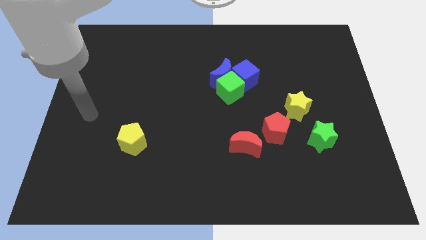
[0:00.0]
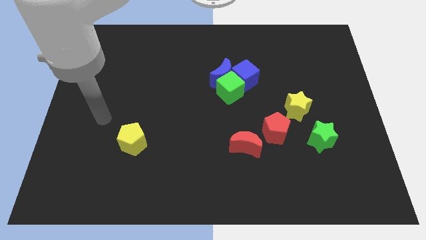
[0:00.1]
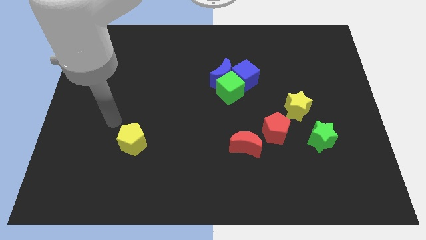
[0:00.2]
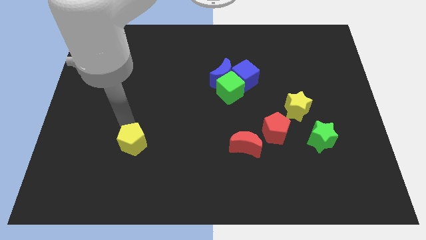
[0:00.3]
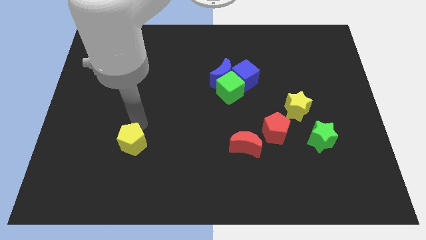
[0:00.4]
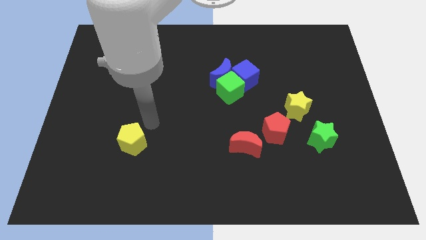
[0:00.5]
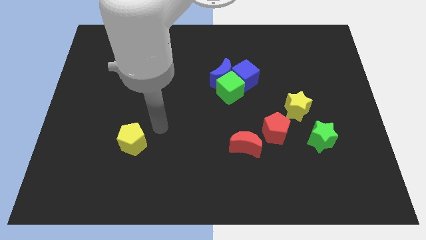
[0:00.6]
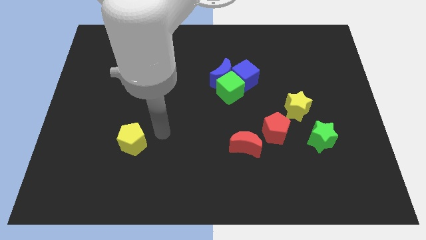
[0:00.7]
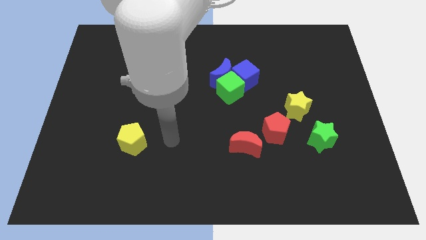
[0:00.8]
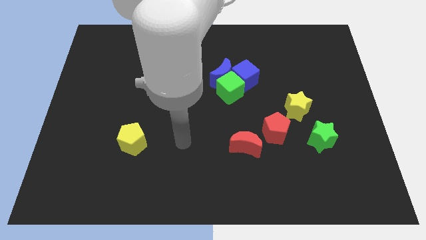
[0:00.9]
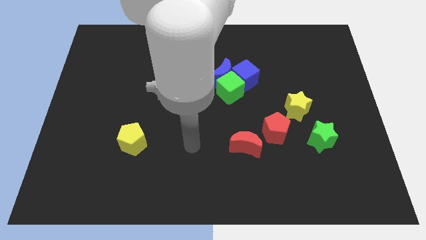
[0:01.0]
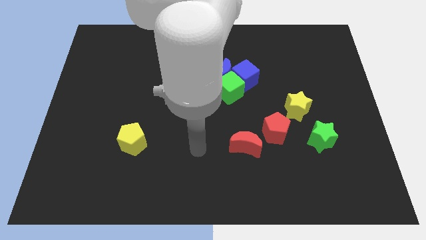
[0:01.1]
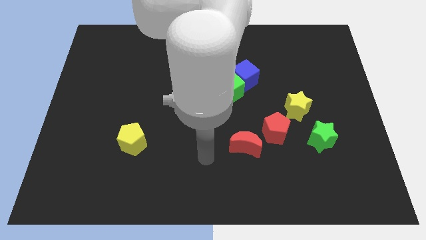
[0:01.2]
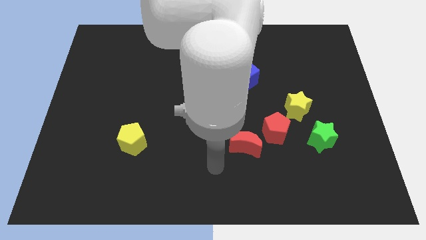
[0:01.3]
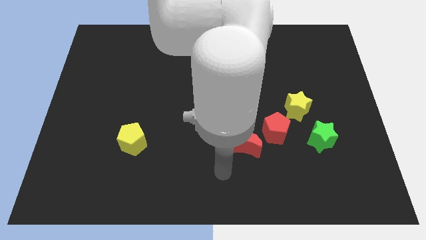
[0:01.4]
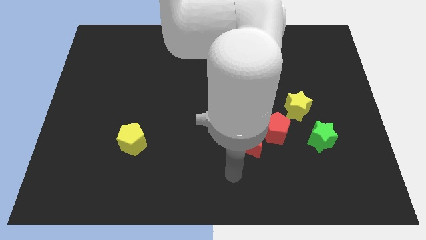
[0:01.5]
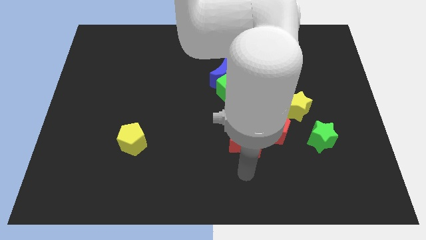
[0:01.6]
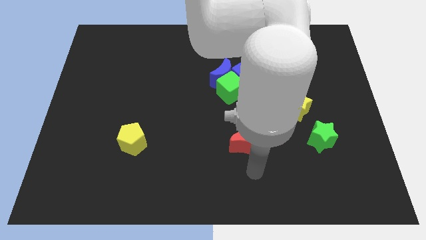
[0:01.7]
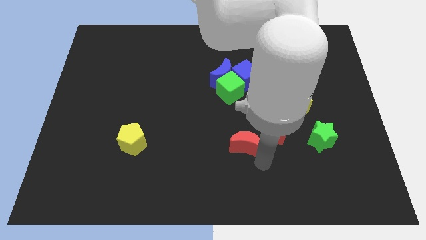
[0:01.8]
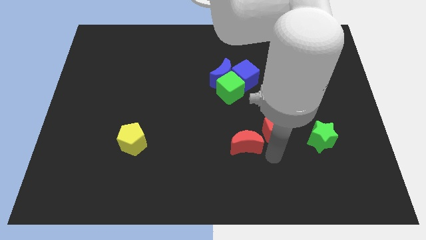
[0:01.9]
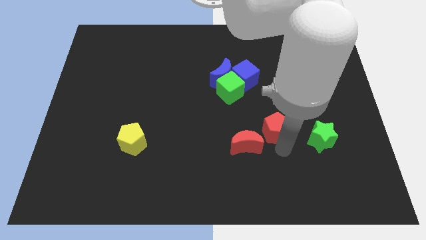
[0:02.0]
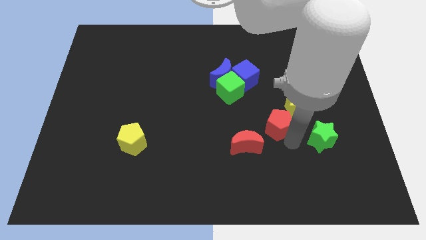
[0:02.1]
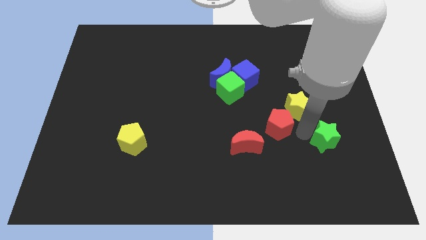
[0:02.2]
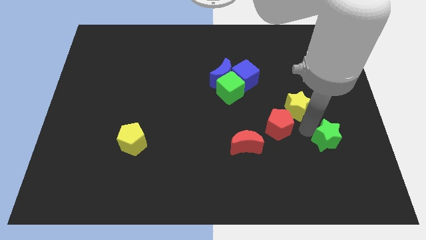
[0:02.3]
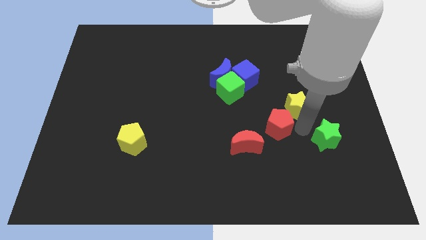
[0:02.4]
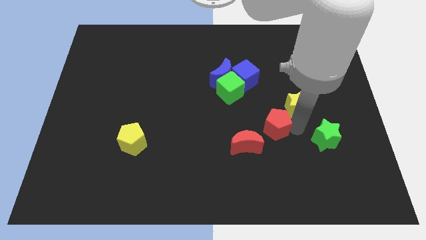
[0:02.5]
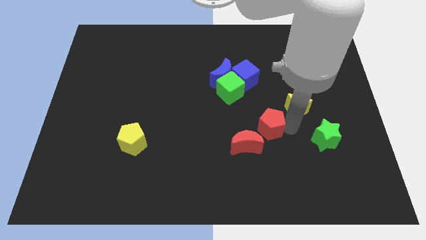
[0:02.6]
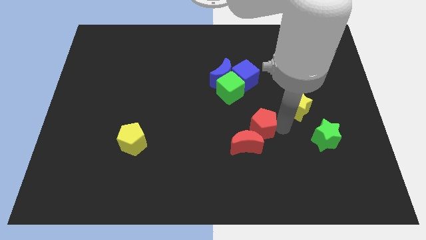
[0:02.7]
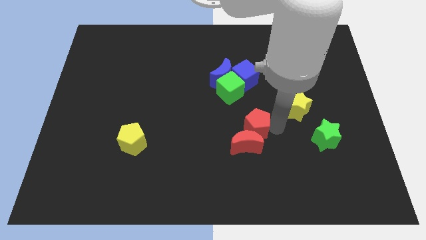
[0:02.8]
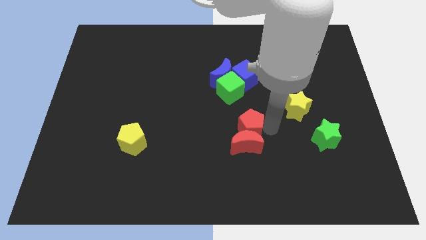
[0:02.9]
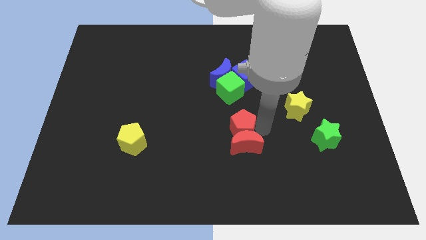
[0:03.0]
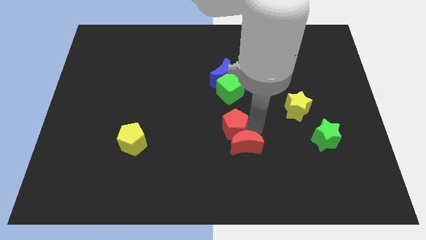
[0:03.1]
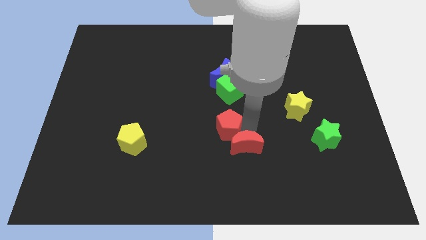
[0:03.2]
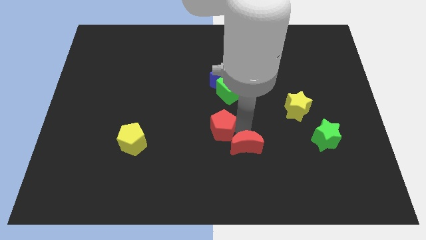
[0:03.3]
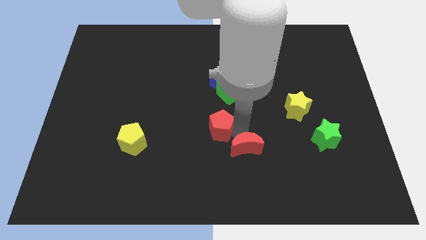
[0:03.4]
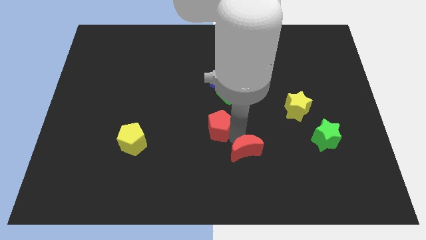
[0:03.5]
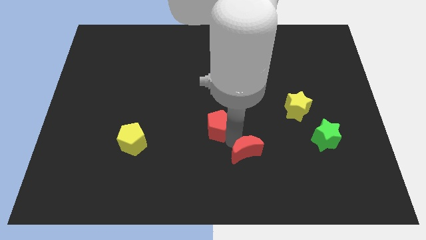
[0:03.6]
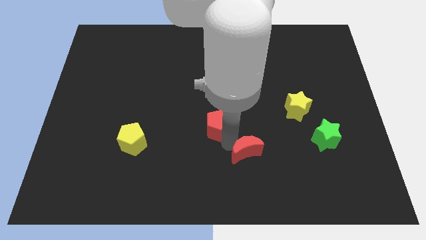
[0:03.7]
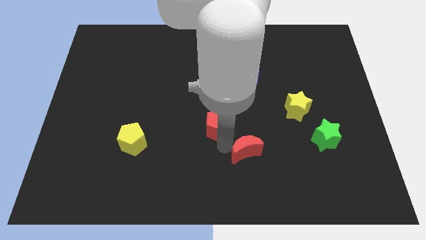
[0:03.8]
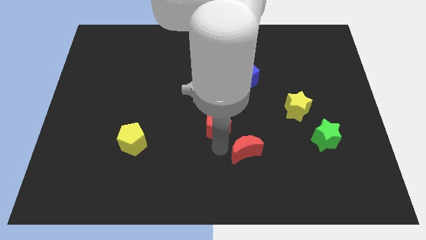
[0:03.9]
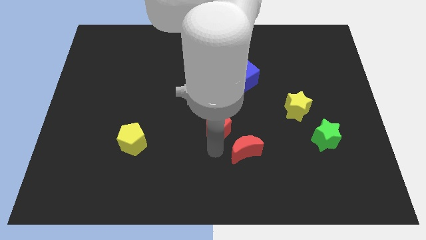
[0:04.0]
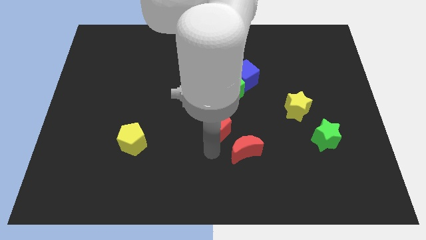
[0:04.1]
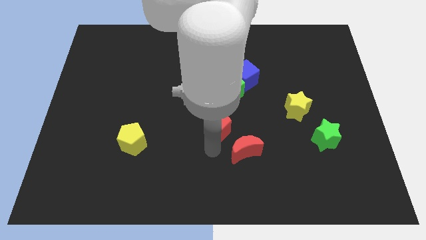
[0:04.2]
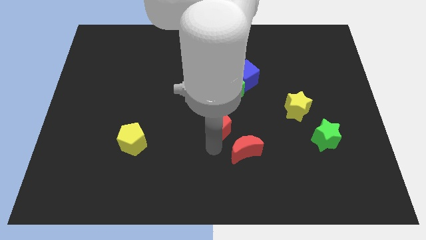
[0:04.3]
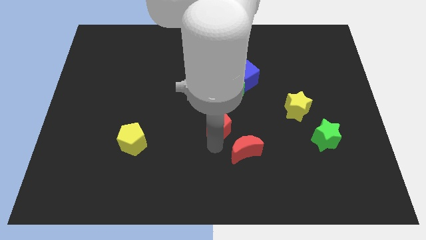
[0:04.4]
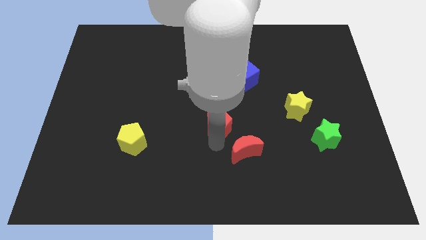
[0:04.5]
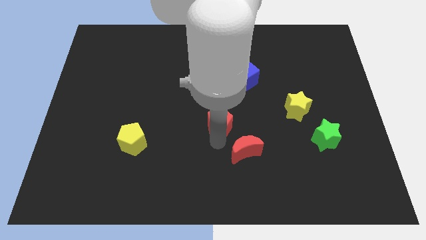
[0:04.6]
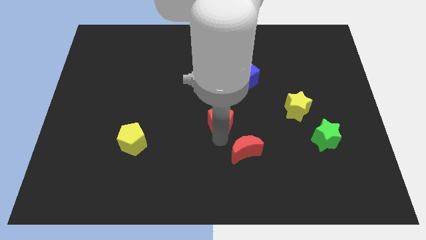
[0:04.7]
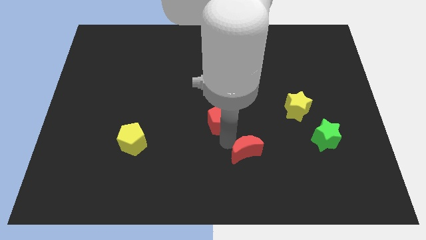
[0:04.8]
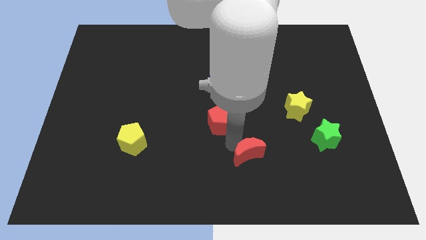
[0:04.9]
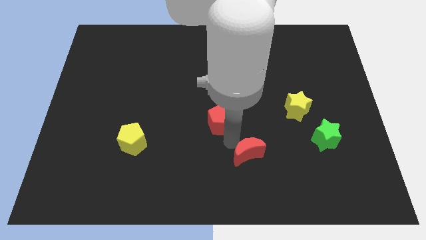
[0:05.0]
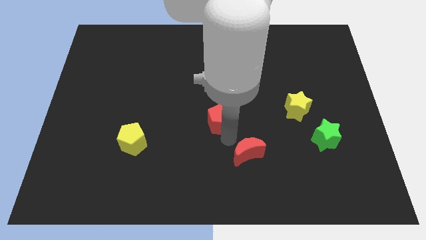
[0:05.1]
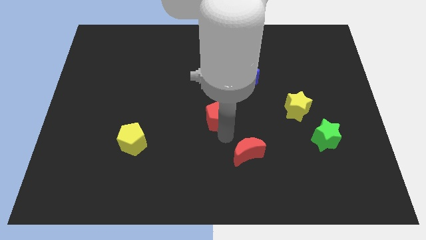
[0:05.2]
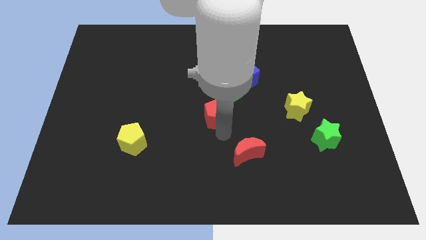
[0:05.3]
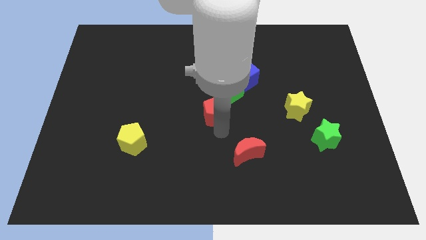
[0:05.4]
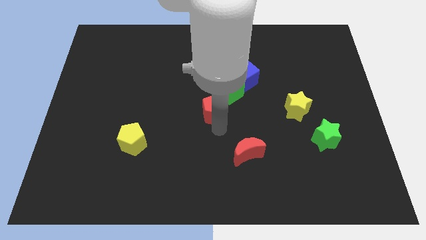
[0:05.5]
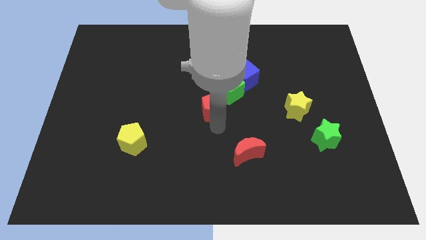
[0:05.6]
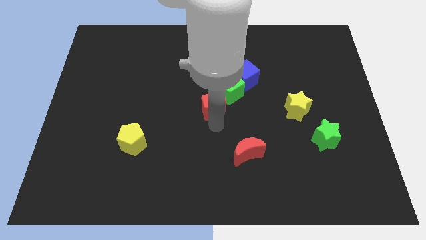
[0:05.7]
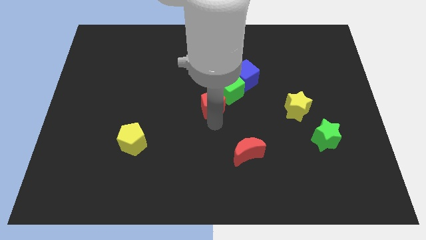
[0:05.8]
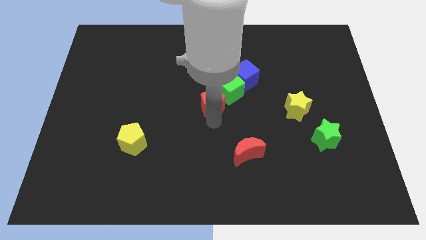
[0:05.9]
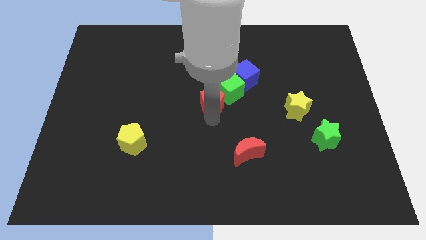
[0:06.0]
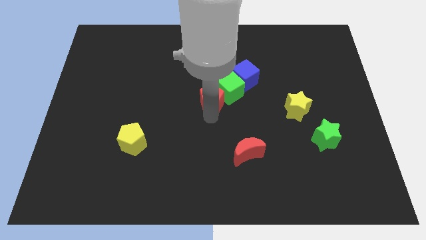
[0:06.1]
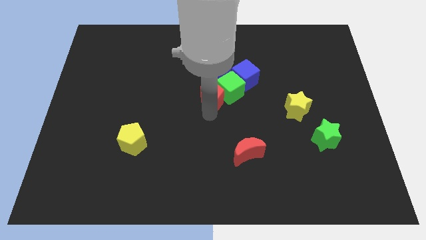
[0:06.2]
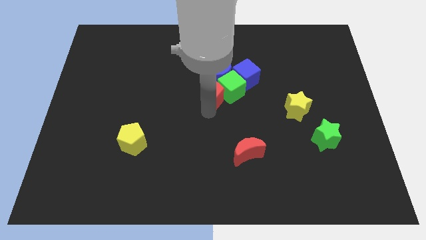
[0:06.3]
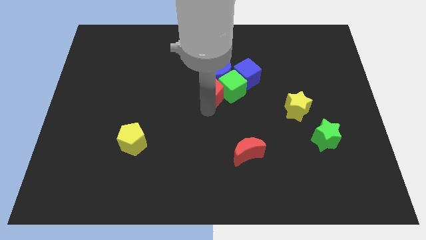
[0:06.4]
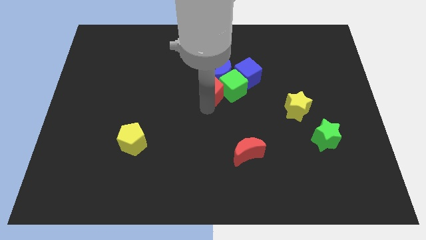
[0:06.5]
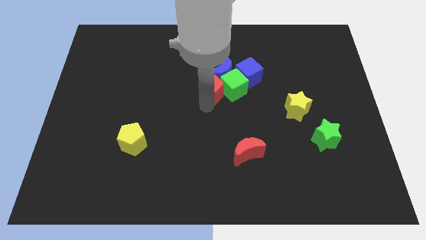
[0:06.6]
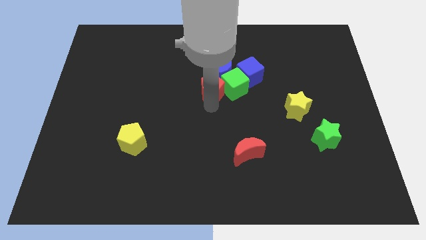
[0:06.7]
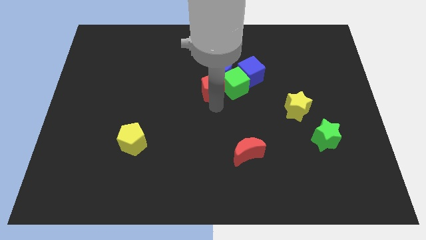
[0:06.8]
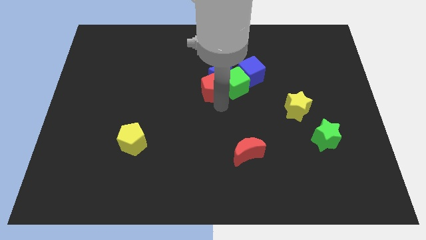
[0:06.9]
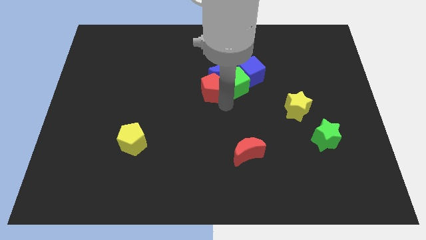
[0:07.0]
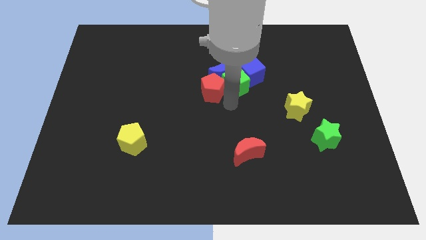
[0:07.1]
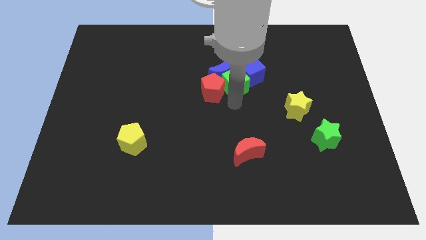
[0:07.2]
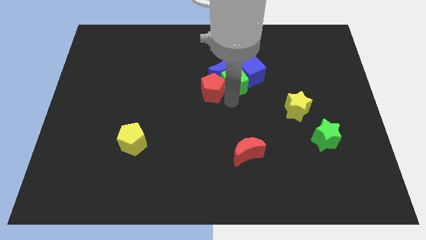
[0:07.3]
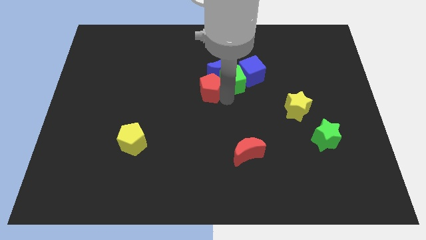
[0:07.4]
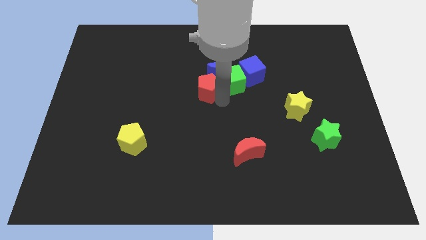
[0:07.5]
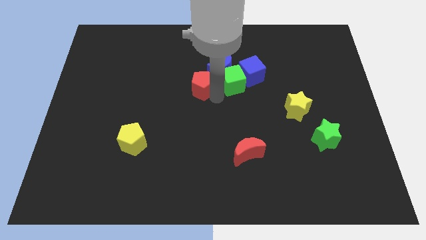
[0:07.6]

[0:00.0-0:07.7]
slide the red pentagon up and to the left

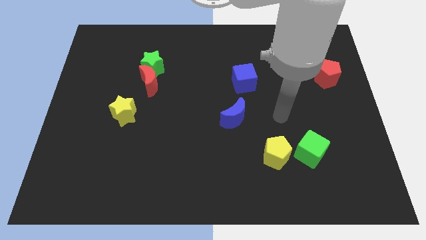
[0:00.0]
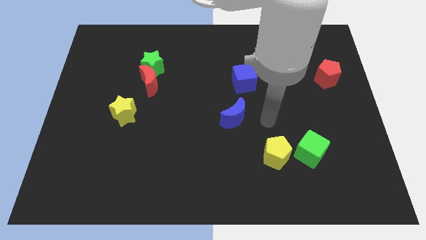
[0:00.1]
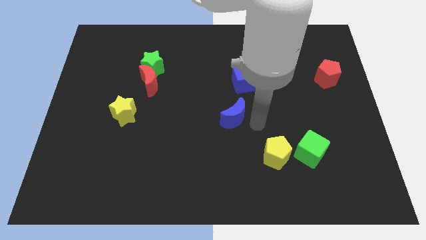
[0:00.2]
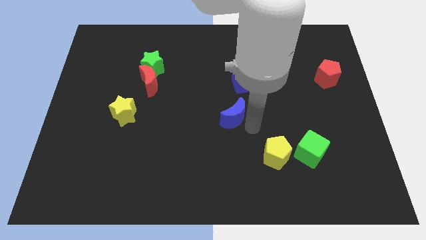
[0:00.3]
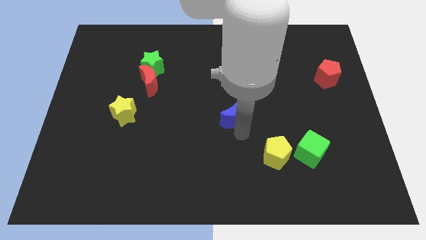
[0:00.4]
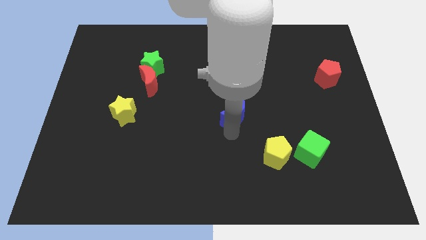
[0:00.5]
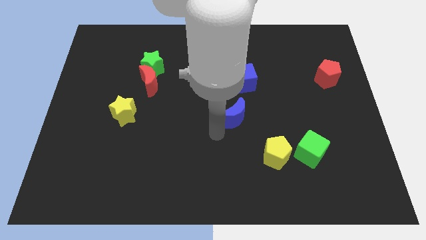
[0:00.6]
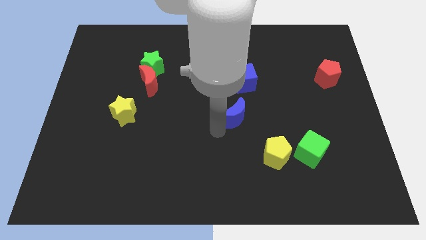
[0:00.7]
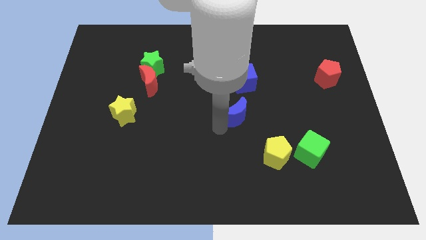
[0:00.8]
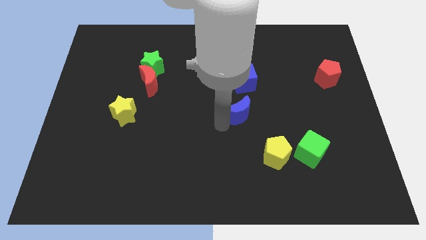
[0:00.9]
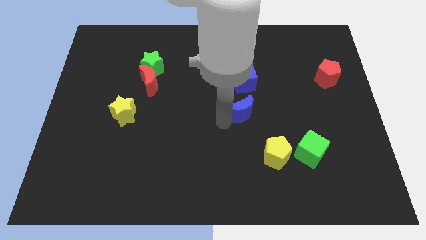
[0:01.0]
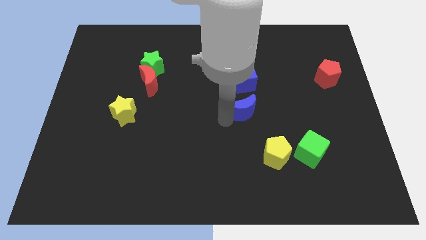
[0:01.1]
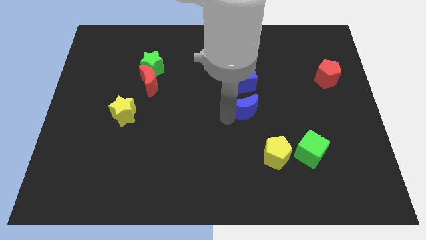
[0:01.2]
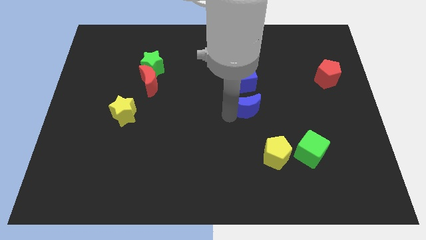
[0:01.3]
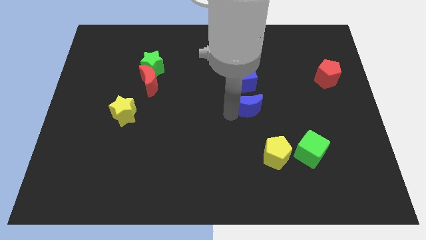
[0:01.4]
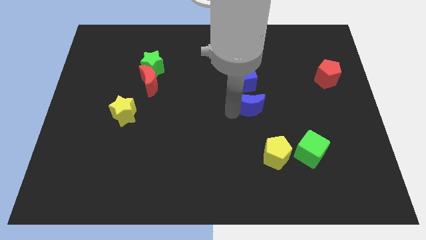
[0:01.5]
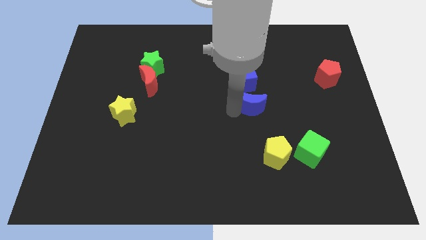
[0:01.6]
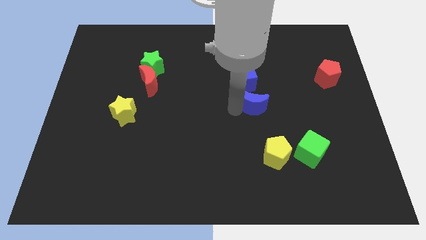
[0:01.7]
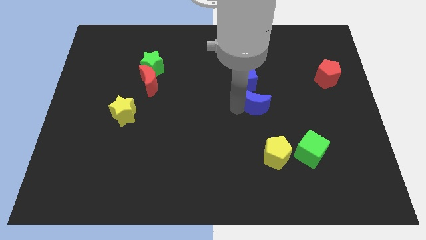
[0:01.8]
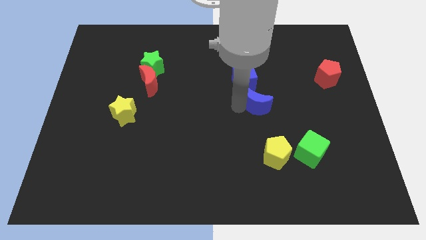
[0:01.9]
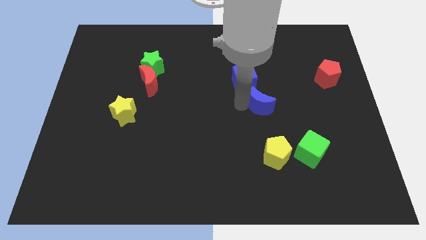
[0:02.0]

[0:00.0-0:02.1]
slide the blue moon up and right slightly
